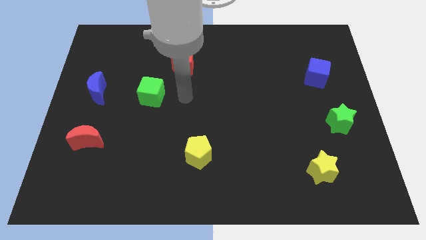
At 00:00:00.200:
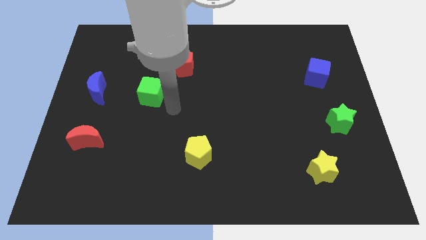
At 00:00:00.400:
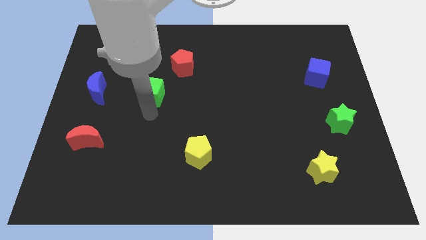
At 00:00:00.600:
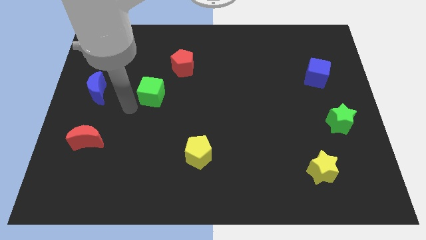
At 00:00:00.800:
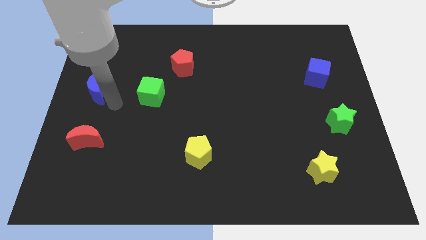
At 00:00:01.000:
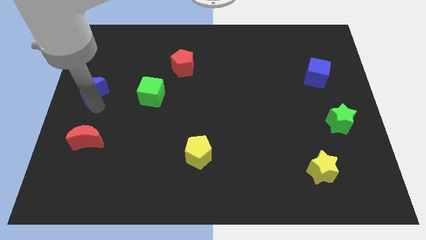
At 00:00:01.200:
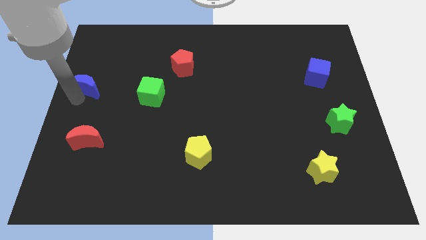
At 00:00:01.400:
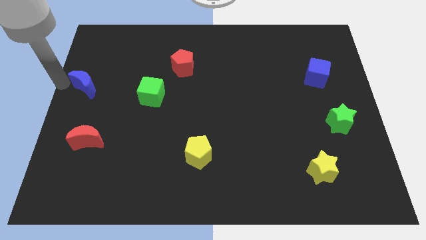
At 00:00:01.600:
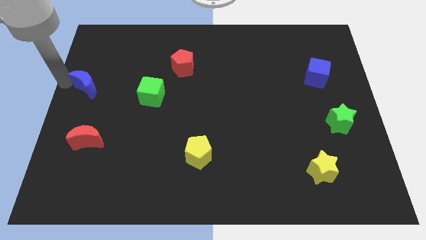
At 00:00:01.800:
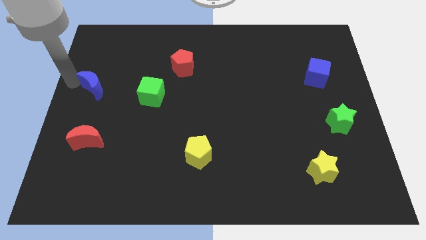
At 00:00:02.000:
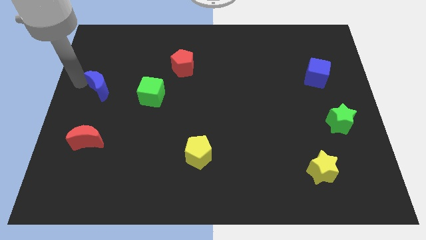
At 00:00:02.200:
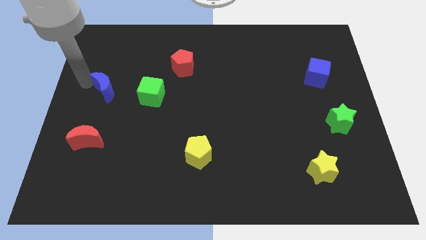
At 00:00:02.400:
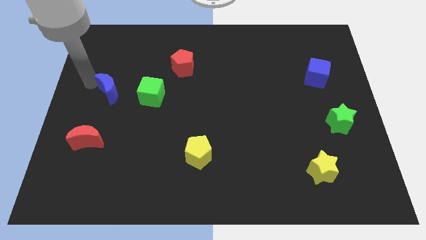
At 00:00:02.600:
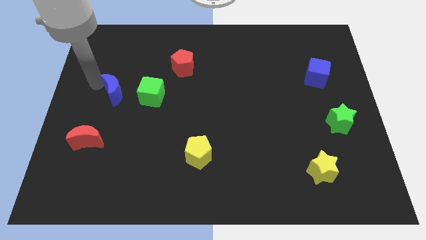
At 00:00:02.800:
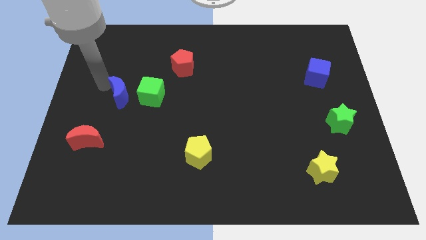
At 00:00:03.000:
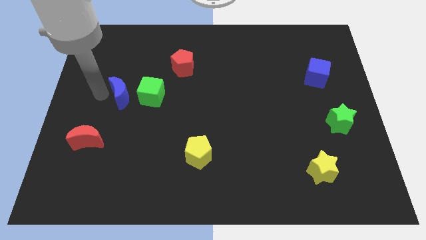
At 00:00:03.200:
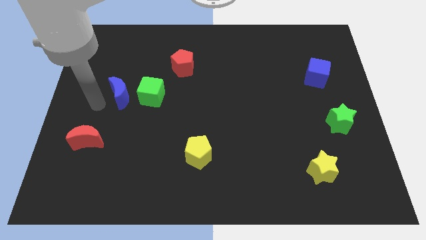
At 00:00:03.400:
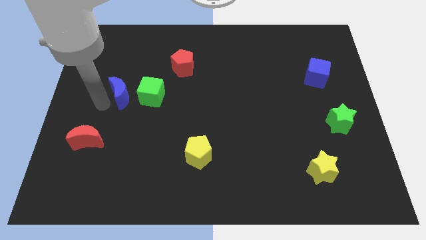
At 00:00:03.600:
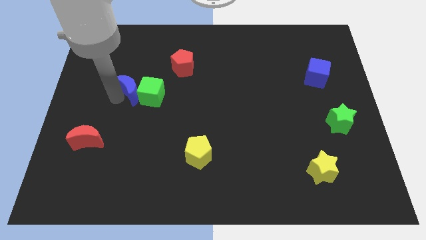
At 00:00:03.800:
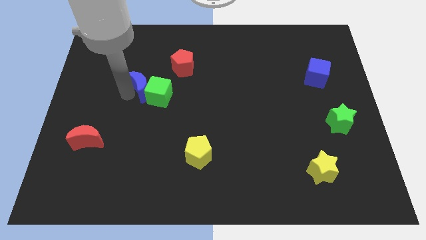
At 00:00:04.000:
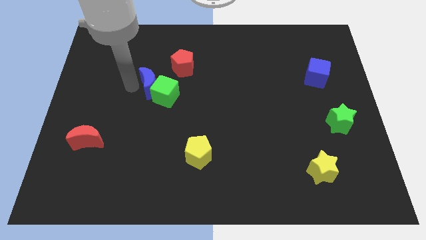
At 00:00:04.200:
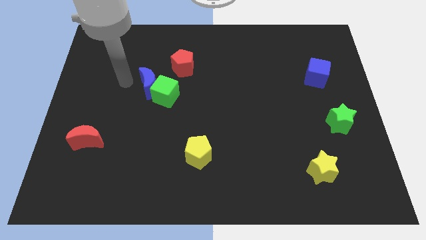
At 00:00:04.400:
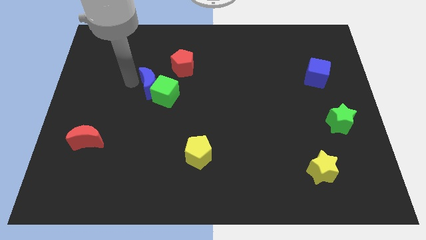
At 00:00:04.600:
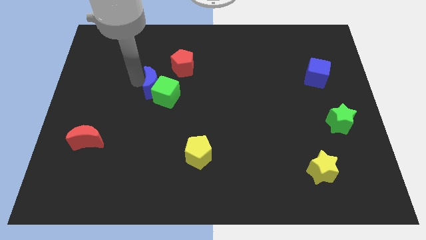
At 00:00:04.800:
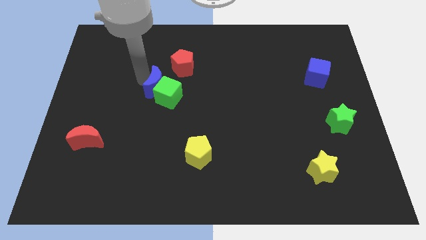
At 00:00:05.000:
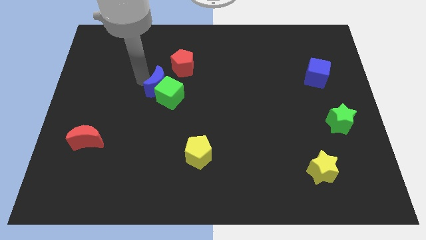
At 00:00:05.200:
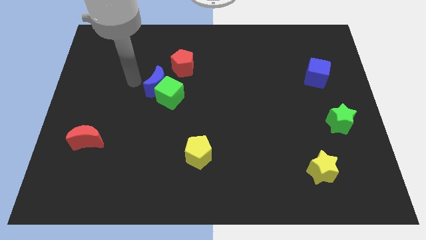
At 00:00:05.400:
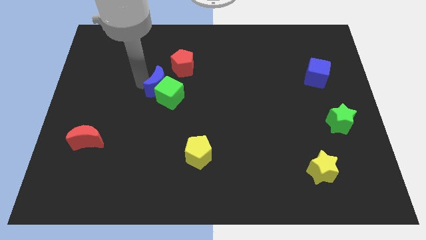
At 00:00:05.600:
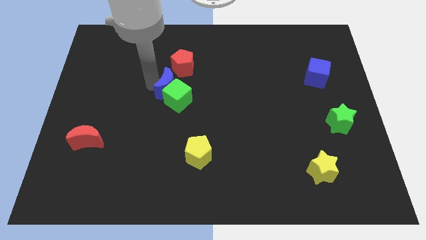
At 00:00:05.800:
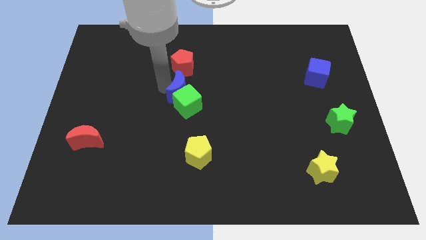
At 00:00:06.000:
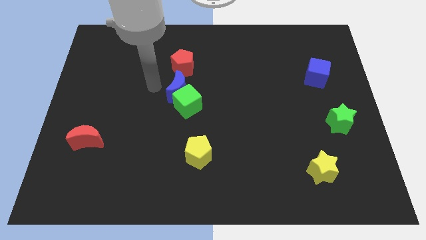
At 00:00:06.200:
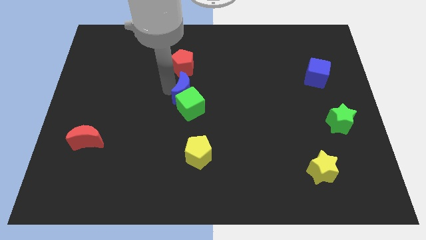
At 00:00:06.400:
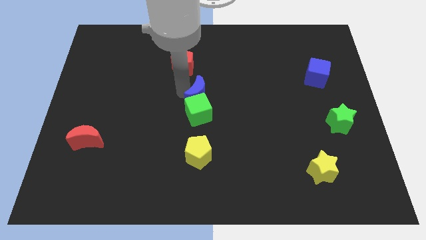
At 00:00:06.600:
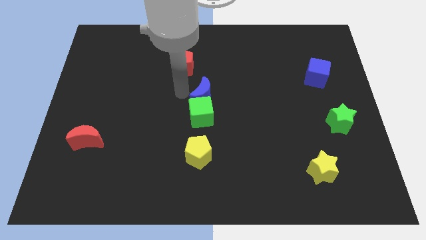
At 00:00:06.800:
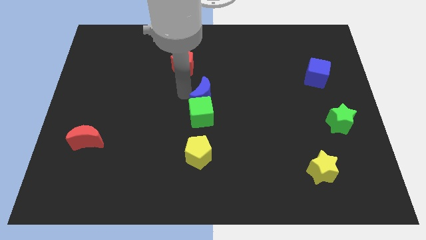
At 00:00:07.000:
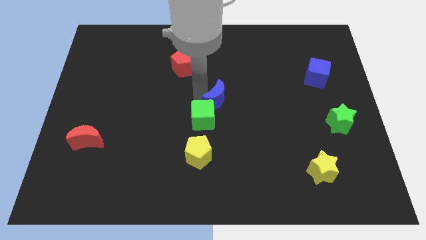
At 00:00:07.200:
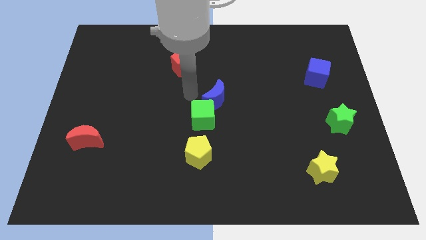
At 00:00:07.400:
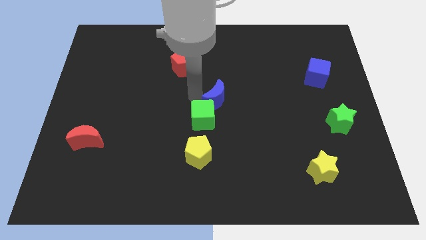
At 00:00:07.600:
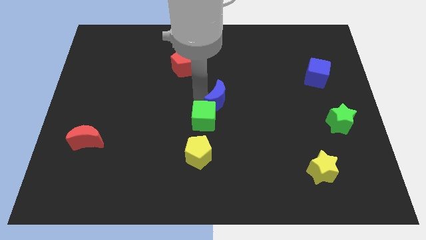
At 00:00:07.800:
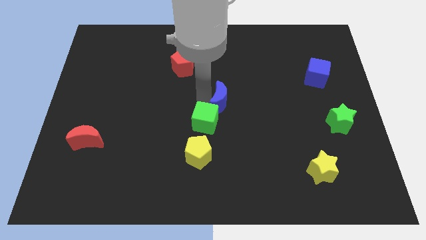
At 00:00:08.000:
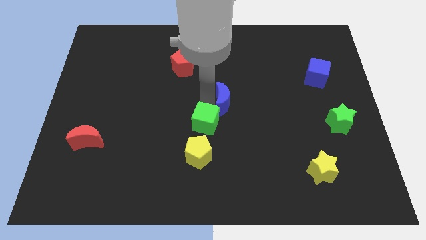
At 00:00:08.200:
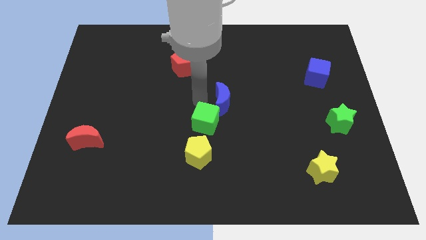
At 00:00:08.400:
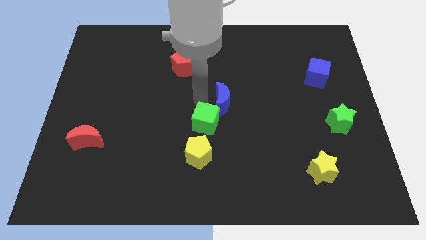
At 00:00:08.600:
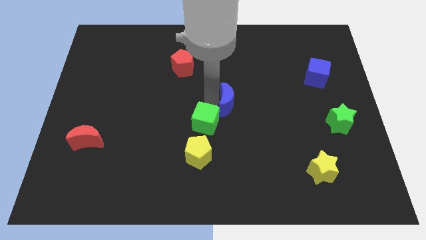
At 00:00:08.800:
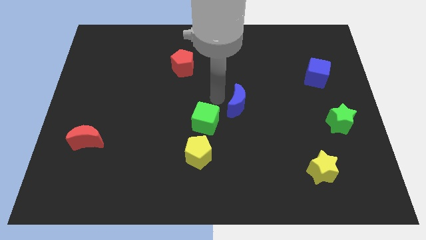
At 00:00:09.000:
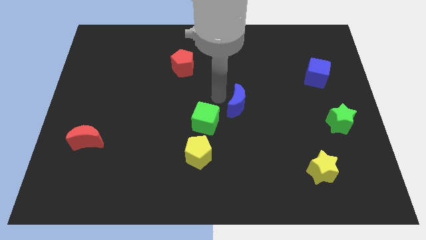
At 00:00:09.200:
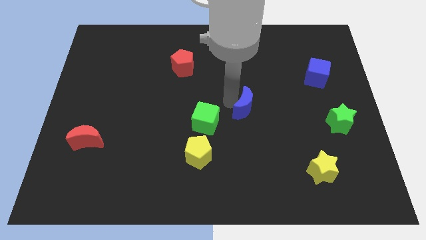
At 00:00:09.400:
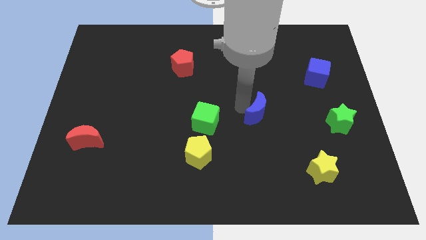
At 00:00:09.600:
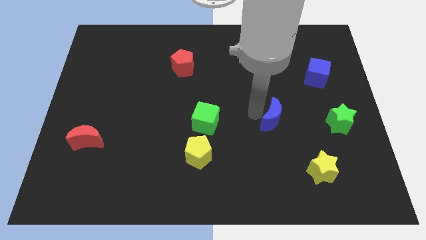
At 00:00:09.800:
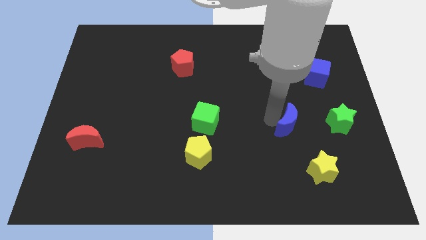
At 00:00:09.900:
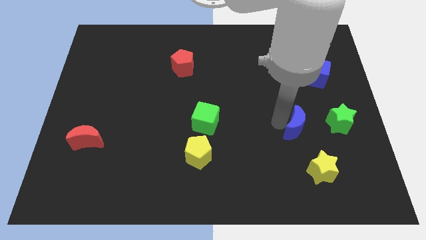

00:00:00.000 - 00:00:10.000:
put the blue moon to the top side of the yellow star

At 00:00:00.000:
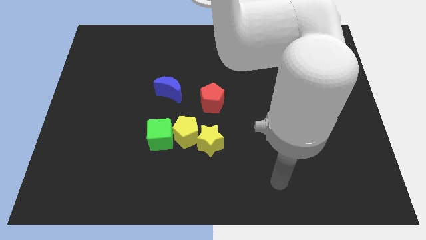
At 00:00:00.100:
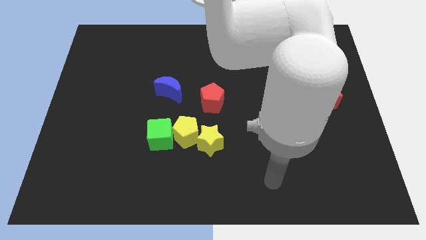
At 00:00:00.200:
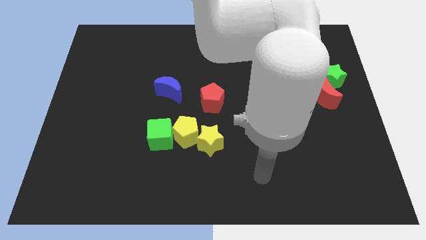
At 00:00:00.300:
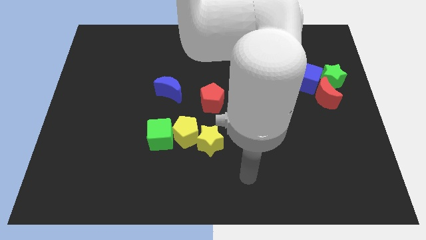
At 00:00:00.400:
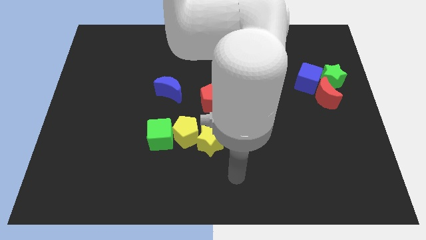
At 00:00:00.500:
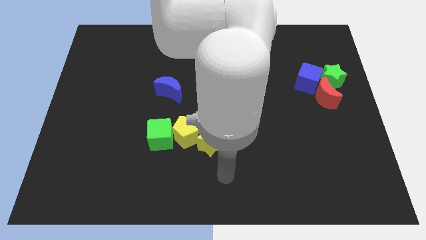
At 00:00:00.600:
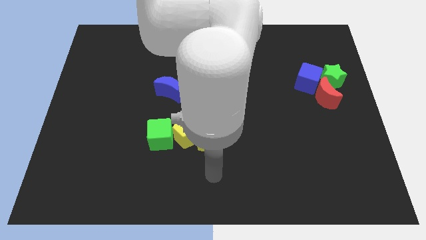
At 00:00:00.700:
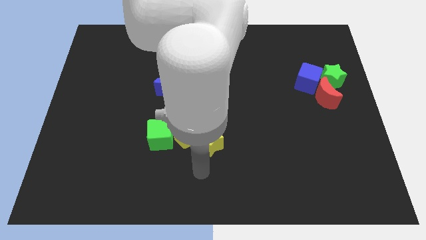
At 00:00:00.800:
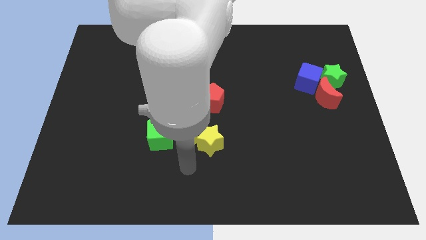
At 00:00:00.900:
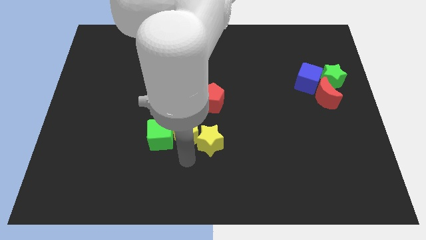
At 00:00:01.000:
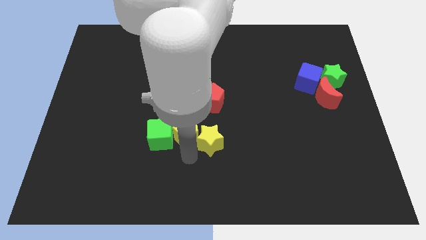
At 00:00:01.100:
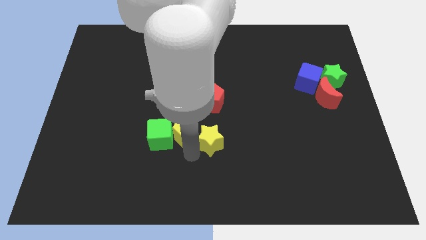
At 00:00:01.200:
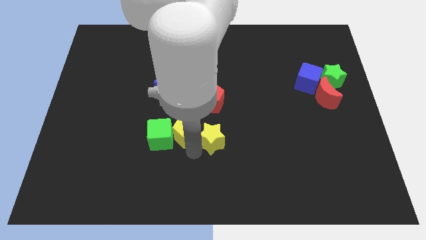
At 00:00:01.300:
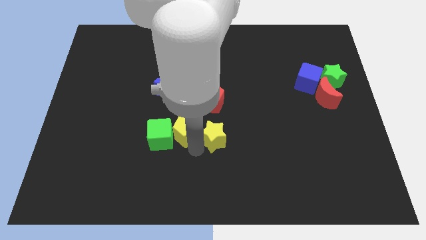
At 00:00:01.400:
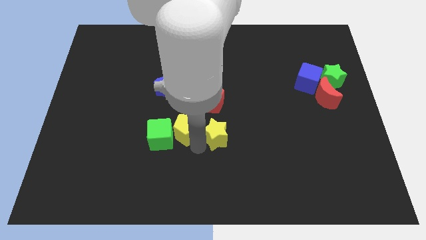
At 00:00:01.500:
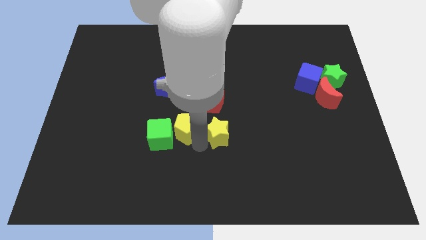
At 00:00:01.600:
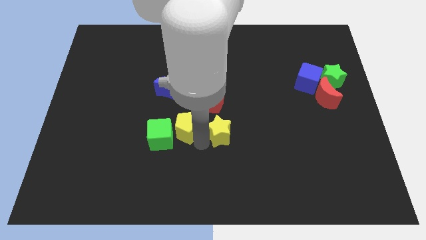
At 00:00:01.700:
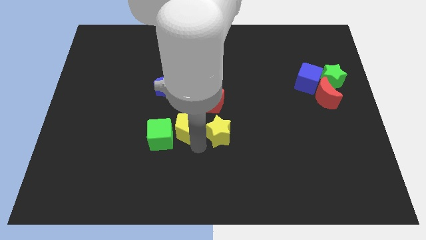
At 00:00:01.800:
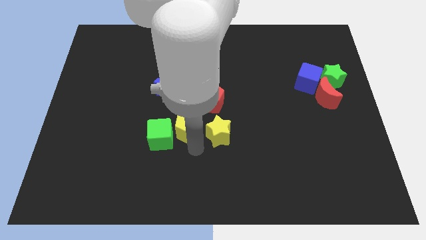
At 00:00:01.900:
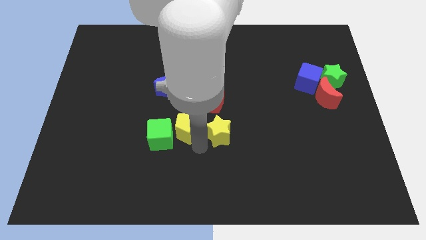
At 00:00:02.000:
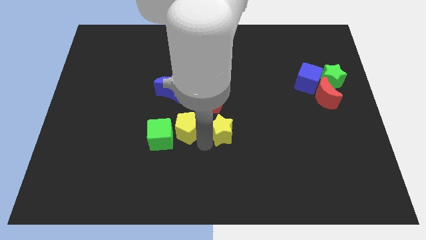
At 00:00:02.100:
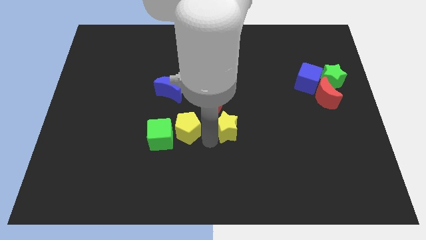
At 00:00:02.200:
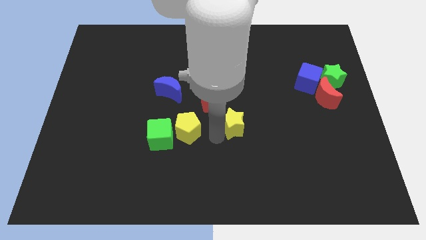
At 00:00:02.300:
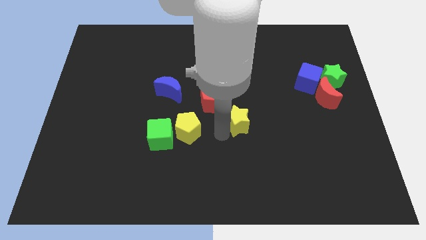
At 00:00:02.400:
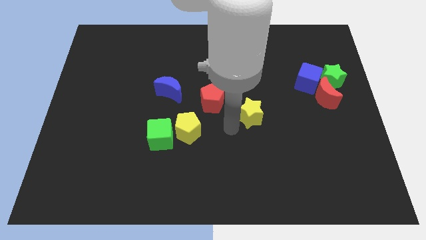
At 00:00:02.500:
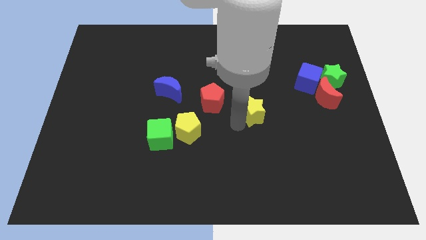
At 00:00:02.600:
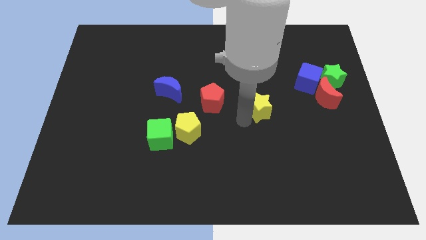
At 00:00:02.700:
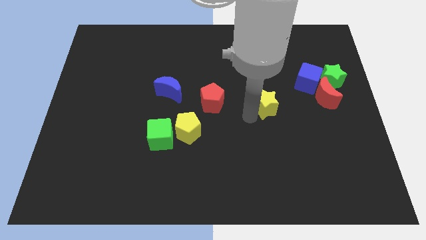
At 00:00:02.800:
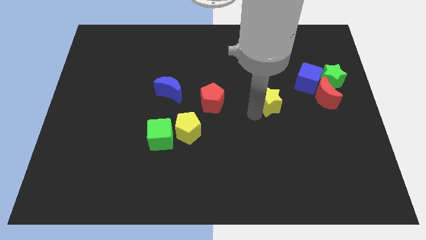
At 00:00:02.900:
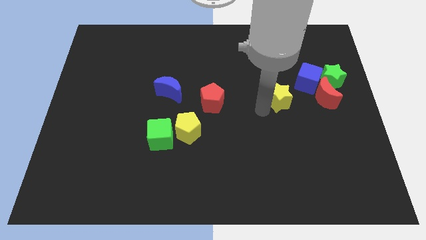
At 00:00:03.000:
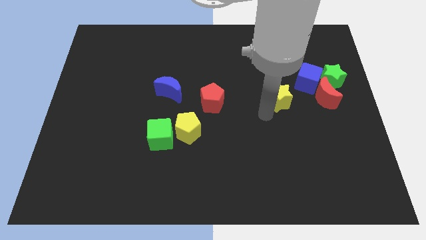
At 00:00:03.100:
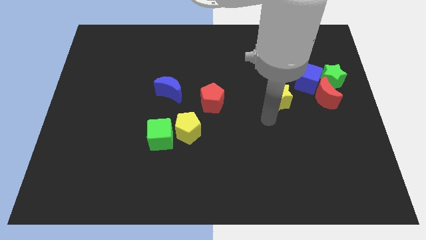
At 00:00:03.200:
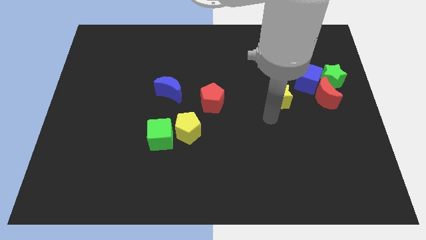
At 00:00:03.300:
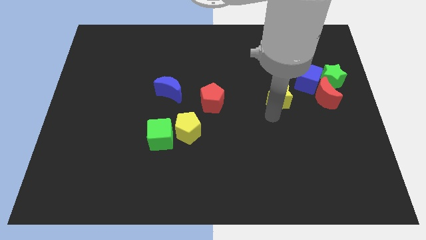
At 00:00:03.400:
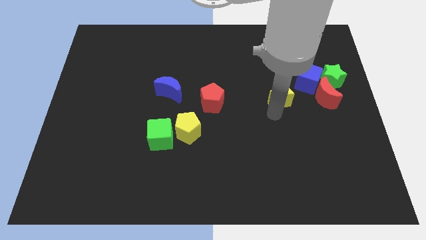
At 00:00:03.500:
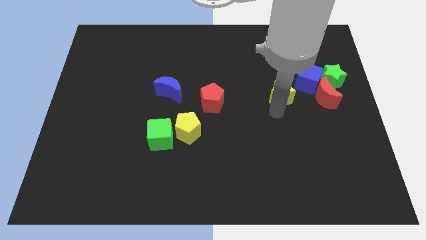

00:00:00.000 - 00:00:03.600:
slide the yellow star left of the green star
